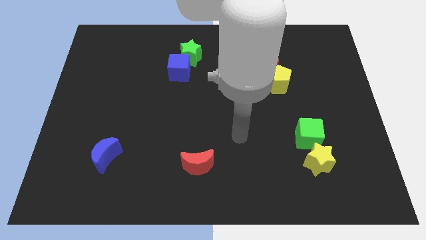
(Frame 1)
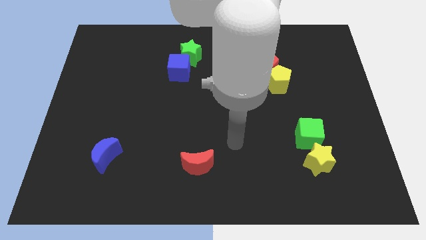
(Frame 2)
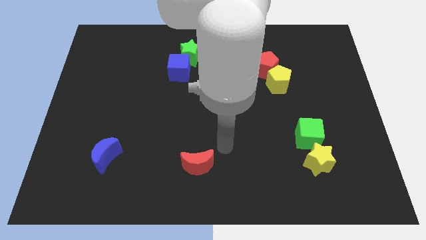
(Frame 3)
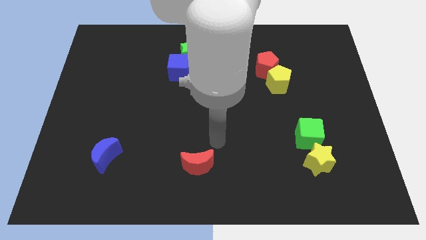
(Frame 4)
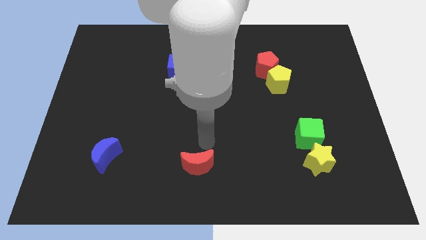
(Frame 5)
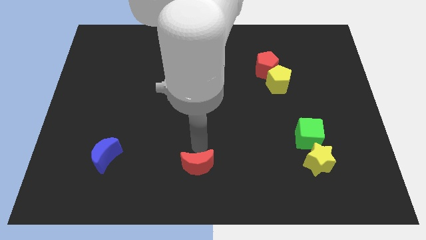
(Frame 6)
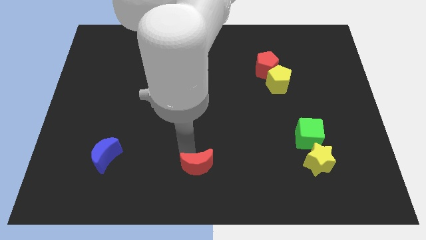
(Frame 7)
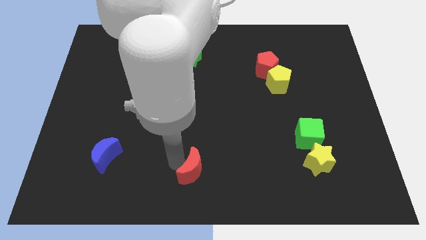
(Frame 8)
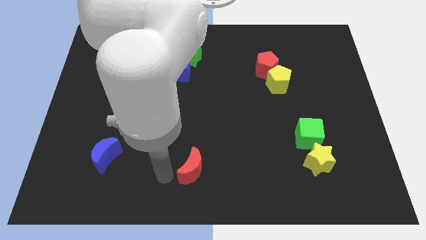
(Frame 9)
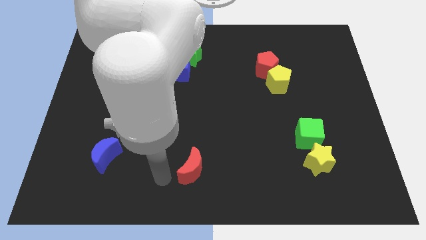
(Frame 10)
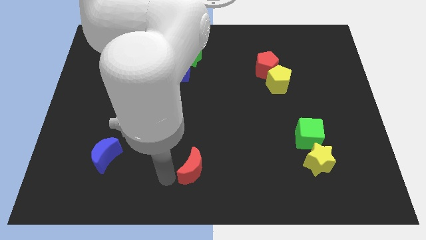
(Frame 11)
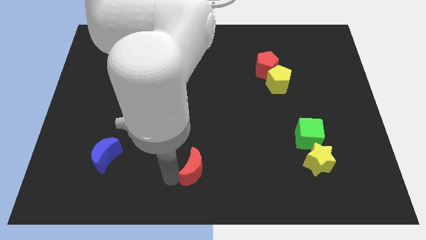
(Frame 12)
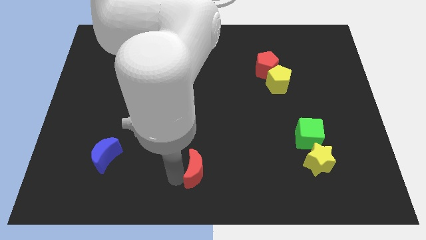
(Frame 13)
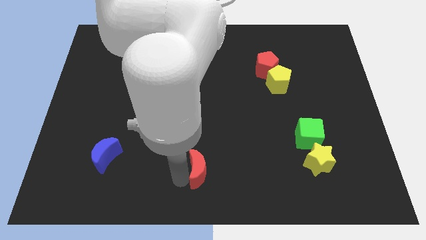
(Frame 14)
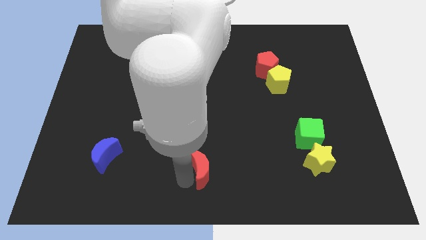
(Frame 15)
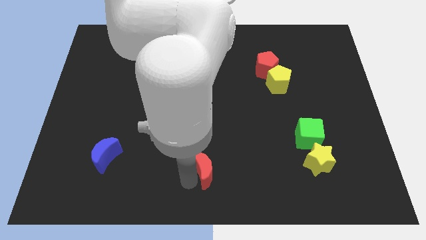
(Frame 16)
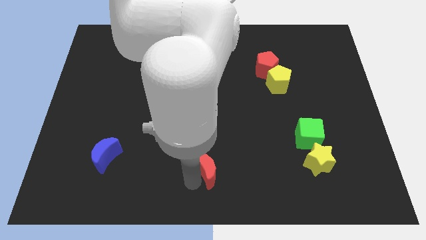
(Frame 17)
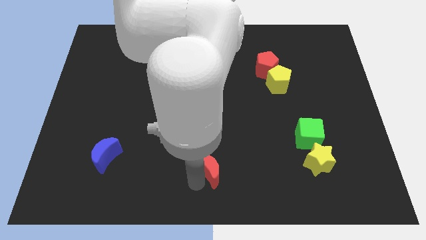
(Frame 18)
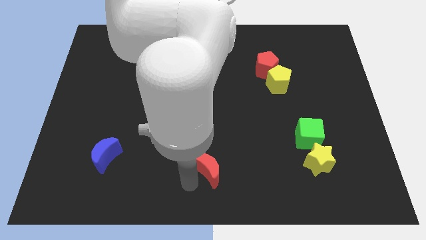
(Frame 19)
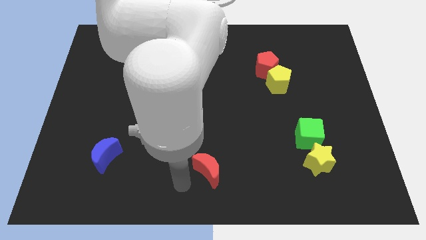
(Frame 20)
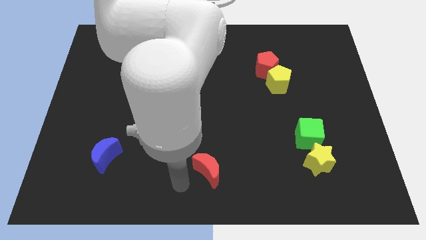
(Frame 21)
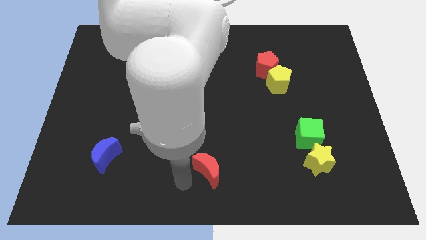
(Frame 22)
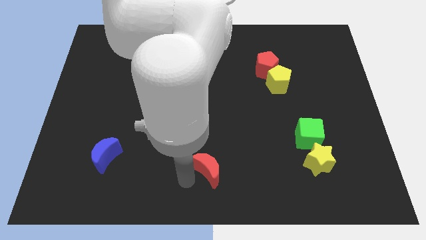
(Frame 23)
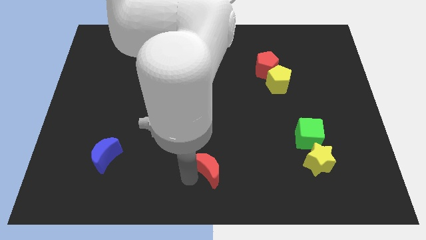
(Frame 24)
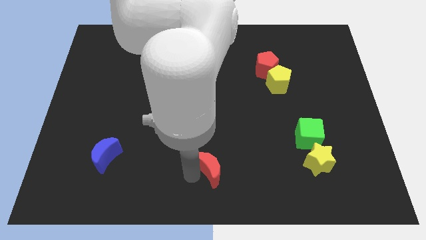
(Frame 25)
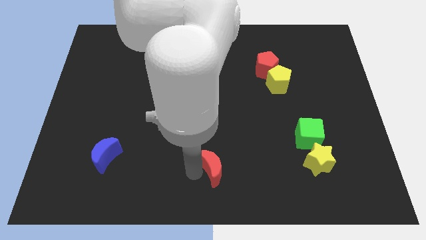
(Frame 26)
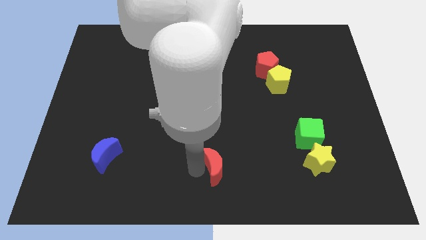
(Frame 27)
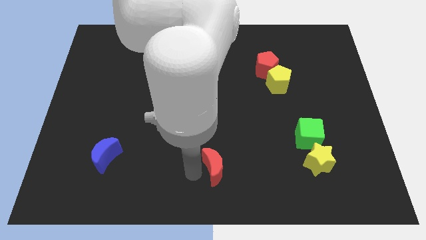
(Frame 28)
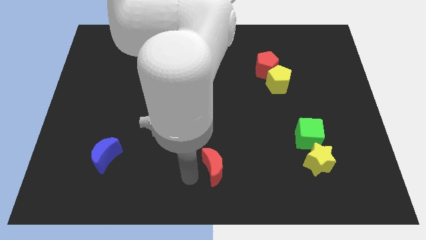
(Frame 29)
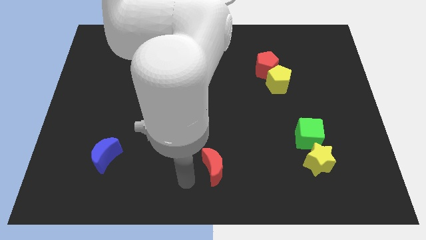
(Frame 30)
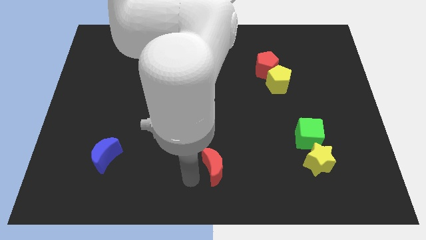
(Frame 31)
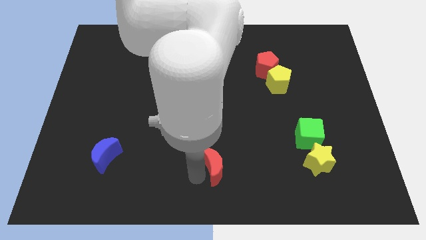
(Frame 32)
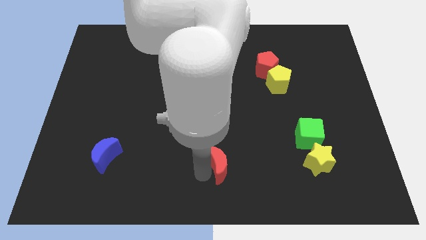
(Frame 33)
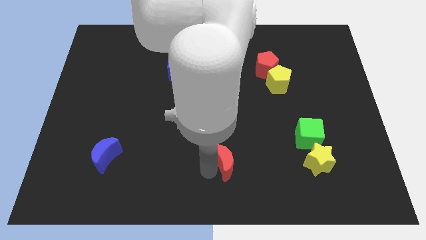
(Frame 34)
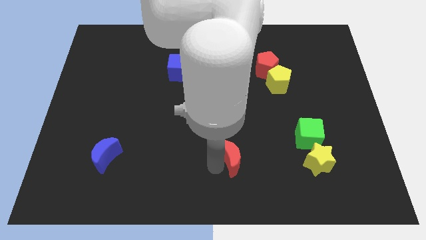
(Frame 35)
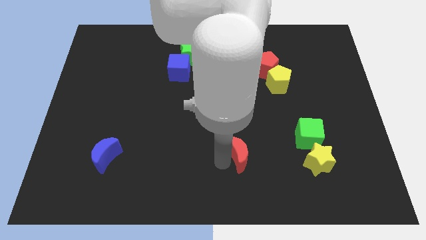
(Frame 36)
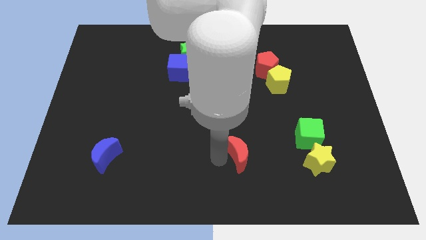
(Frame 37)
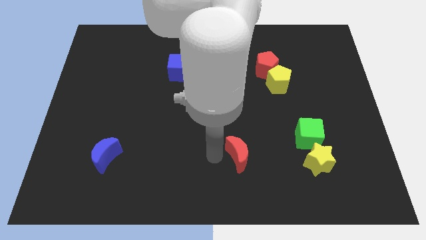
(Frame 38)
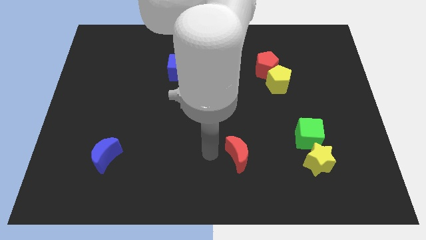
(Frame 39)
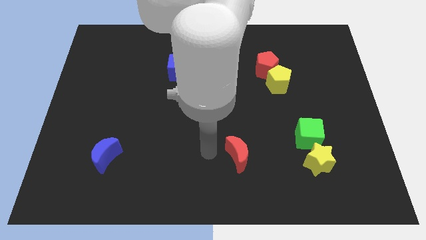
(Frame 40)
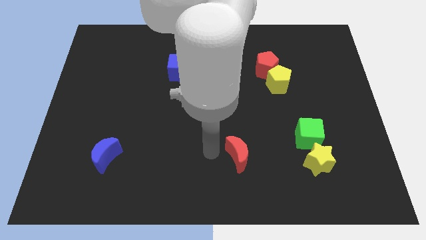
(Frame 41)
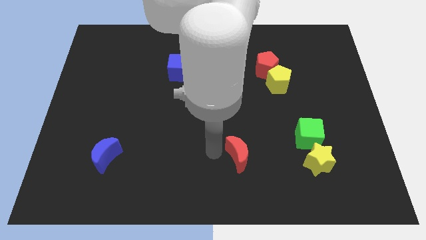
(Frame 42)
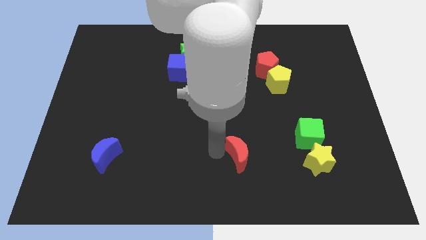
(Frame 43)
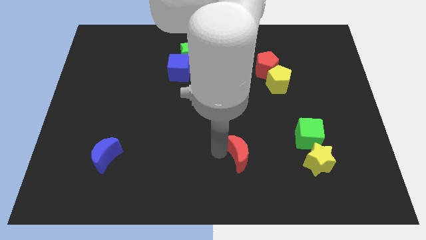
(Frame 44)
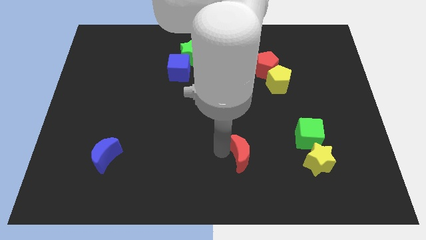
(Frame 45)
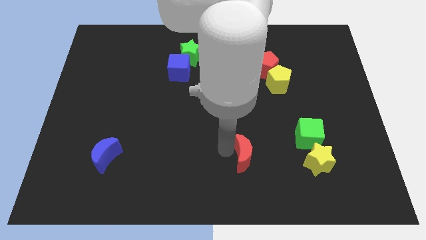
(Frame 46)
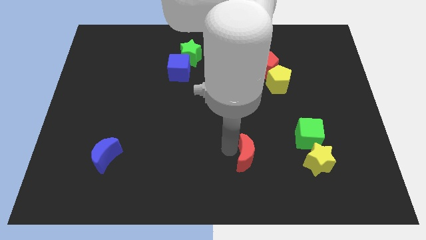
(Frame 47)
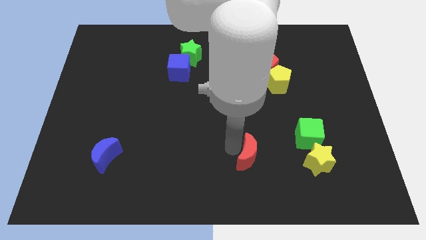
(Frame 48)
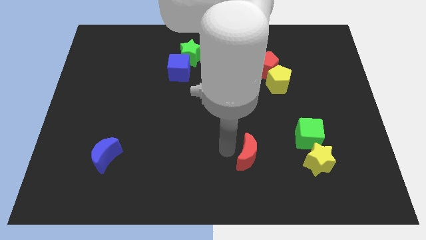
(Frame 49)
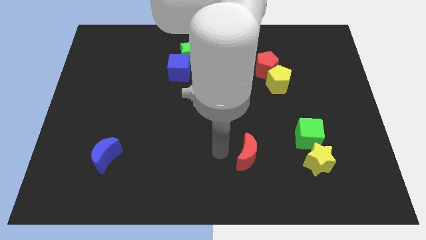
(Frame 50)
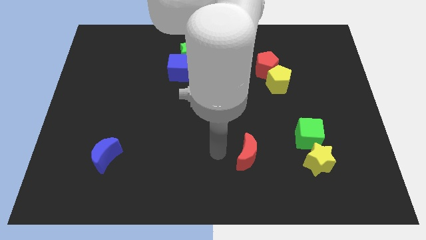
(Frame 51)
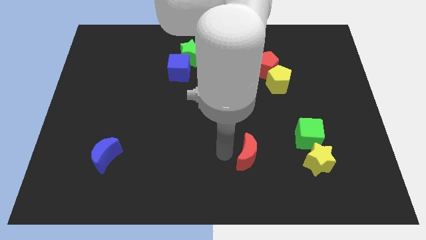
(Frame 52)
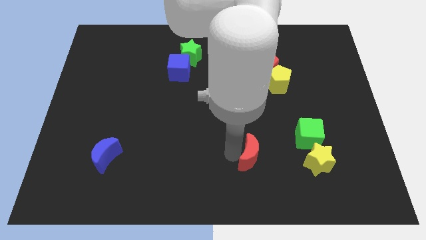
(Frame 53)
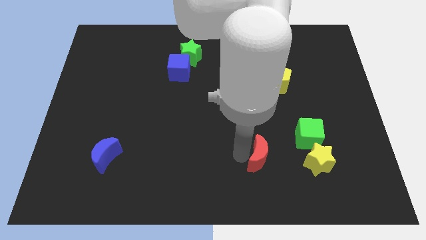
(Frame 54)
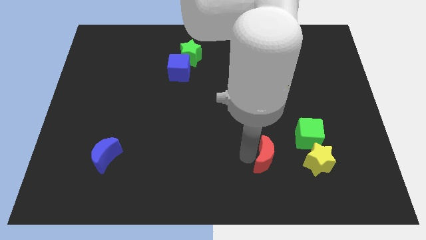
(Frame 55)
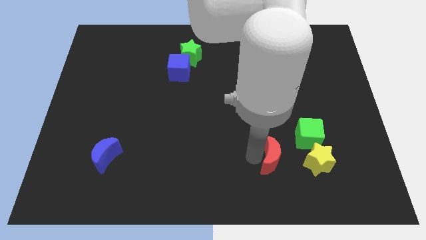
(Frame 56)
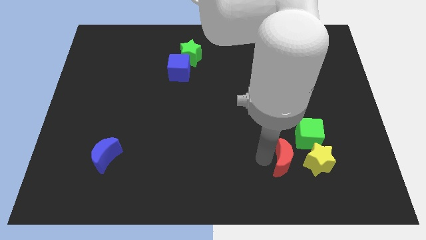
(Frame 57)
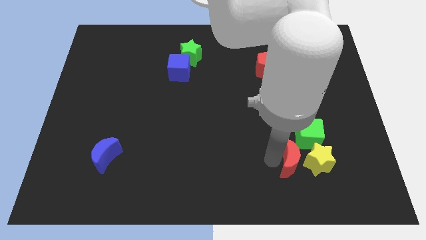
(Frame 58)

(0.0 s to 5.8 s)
put the red moon close to the yellow star

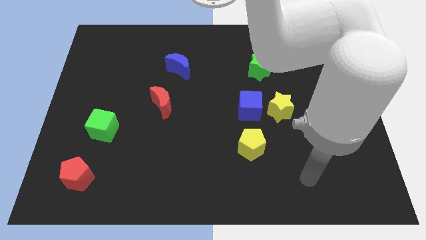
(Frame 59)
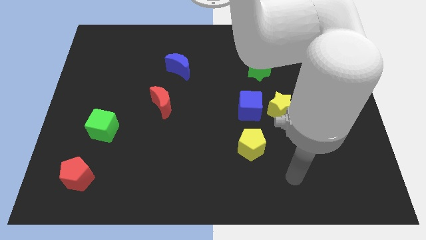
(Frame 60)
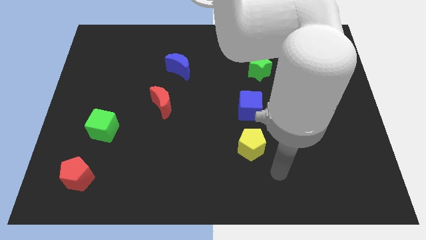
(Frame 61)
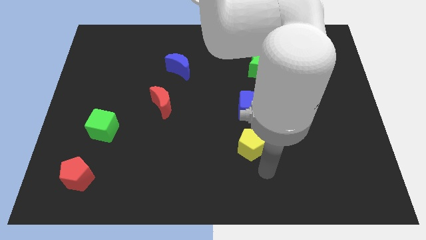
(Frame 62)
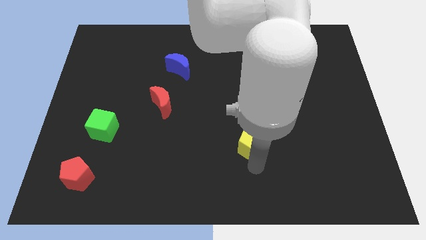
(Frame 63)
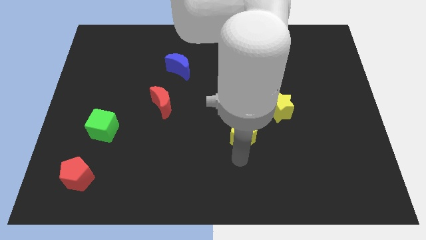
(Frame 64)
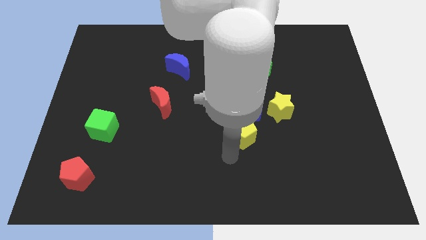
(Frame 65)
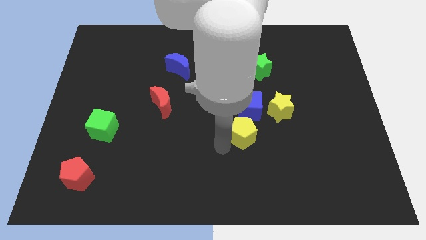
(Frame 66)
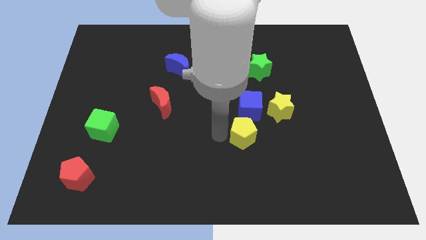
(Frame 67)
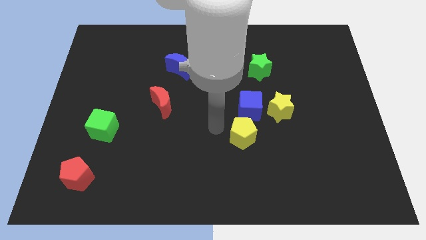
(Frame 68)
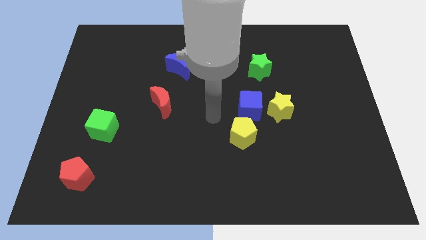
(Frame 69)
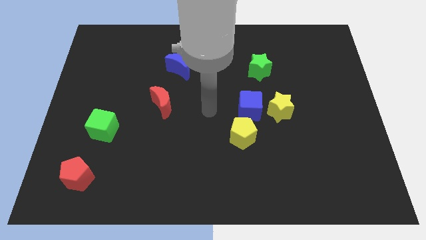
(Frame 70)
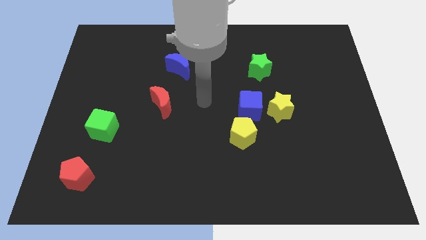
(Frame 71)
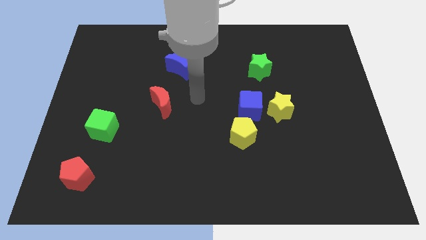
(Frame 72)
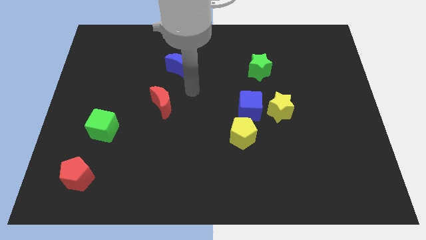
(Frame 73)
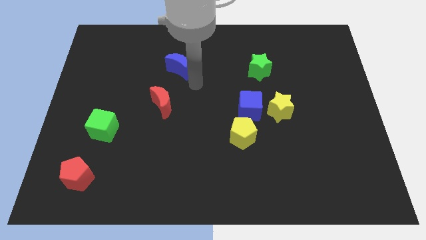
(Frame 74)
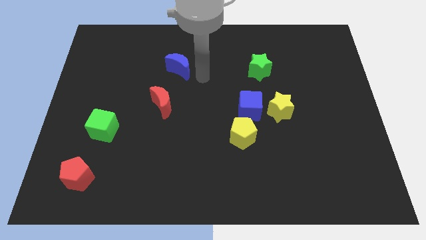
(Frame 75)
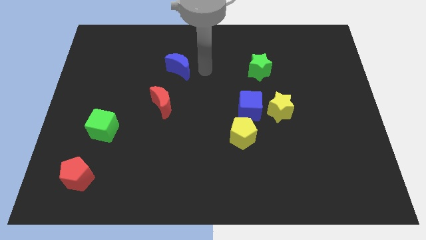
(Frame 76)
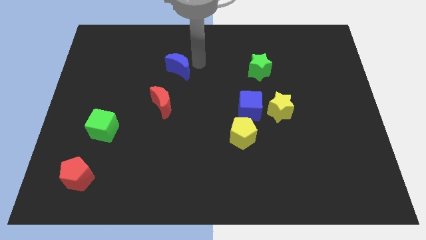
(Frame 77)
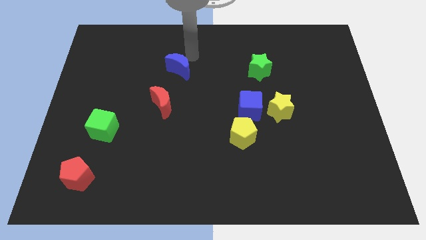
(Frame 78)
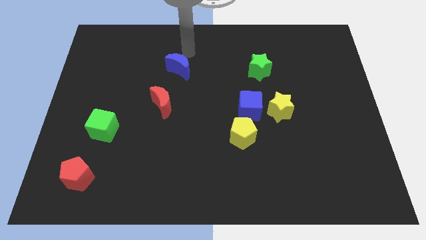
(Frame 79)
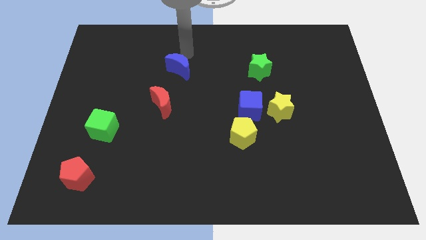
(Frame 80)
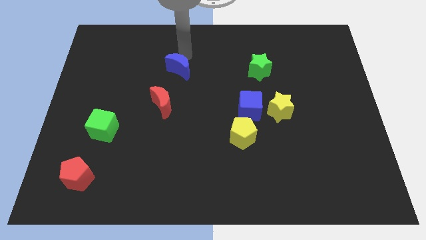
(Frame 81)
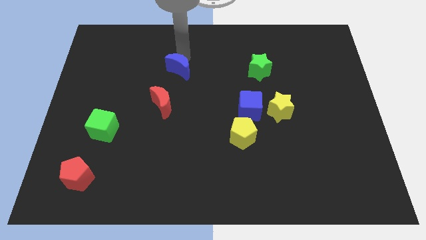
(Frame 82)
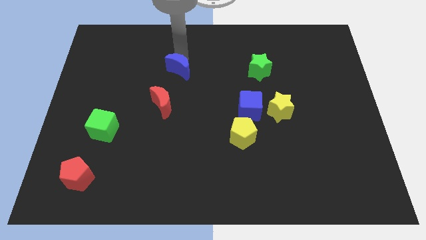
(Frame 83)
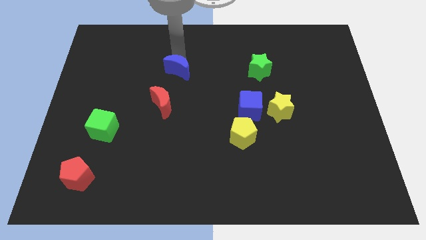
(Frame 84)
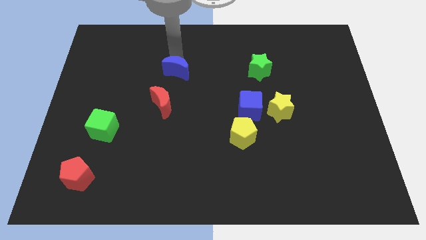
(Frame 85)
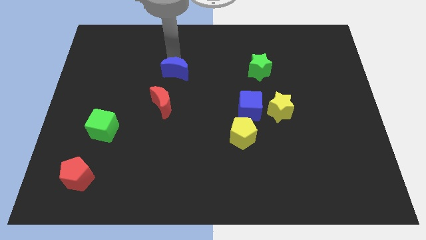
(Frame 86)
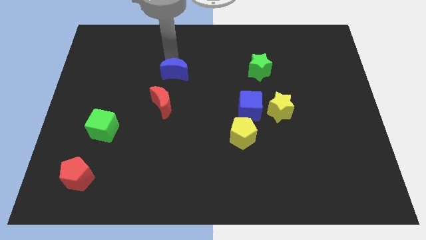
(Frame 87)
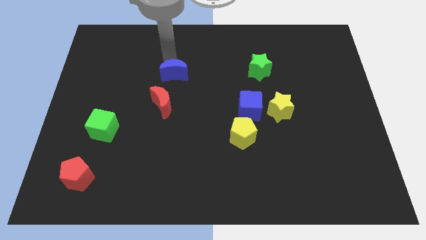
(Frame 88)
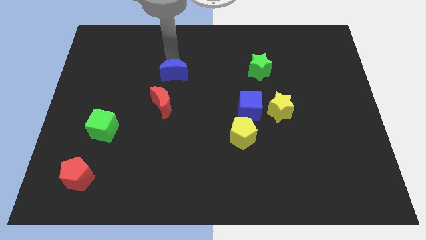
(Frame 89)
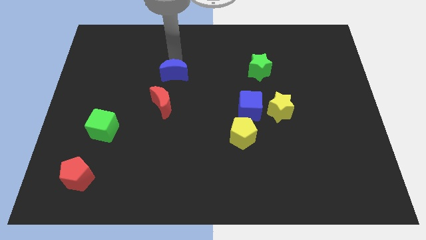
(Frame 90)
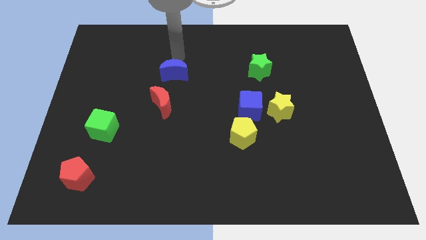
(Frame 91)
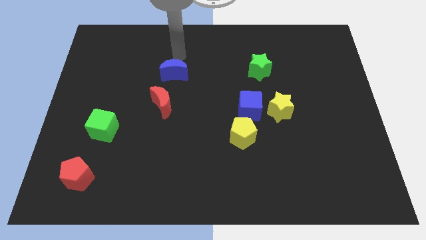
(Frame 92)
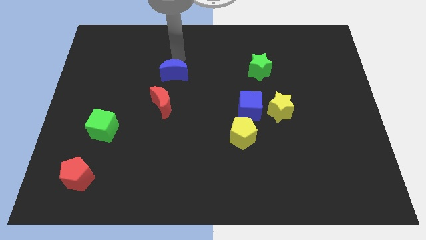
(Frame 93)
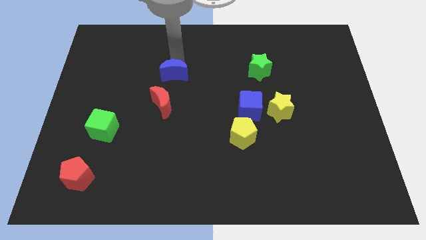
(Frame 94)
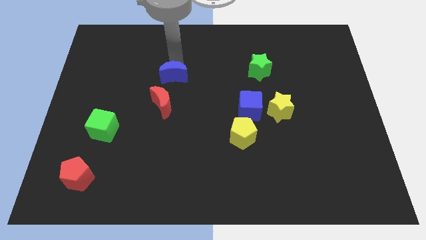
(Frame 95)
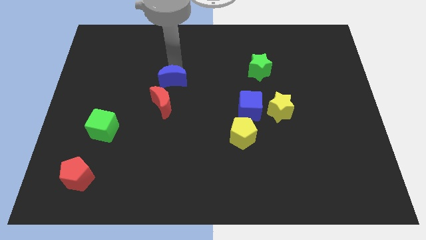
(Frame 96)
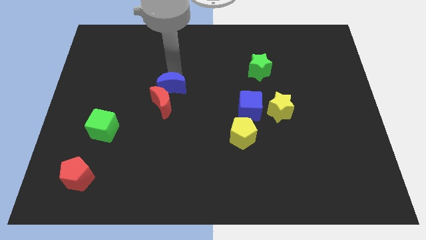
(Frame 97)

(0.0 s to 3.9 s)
push the blue moon to the red moon
